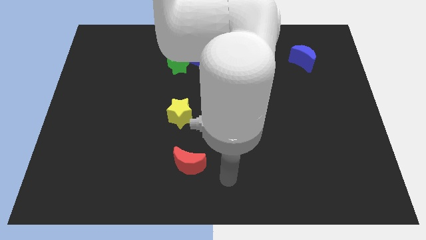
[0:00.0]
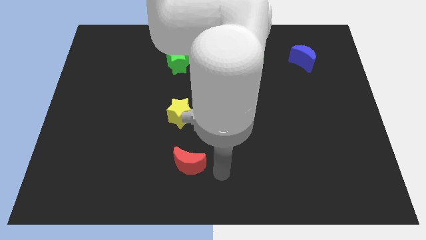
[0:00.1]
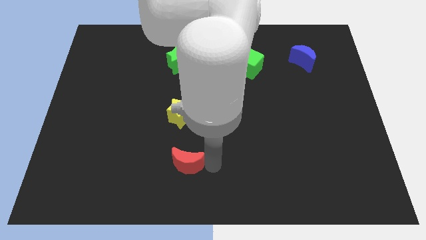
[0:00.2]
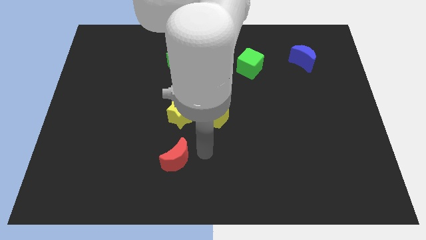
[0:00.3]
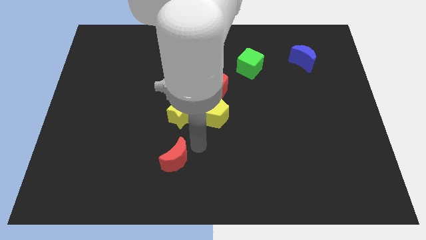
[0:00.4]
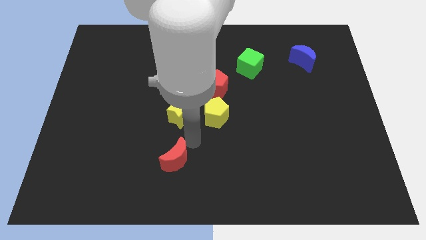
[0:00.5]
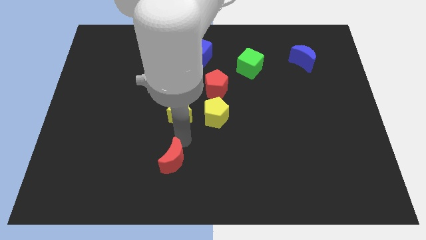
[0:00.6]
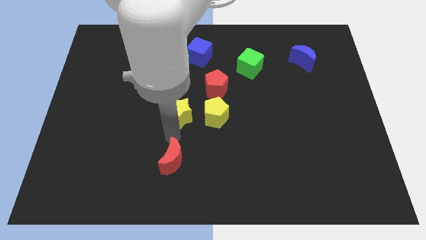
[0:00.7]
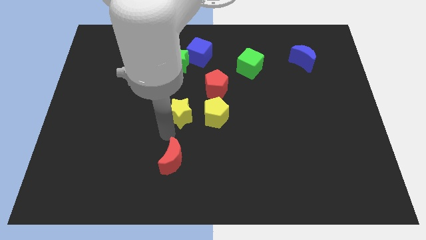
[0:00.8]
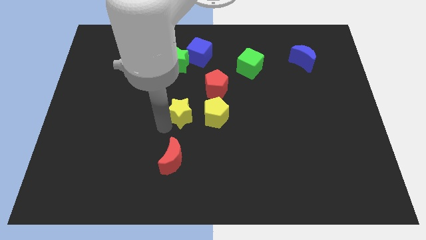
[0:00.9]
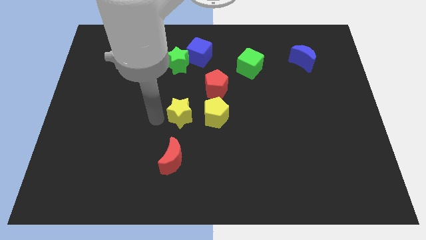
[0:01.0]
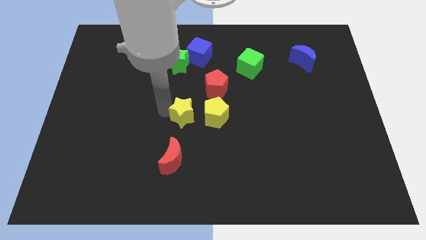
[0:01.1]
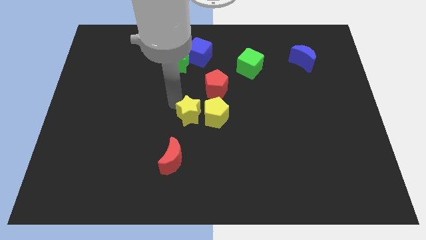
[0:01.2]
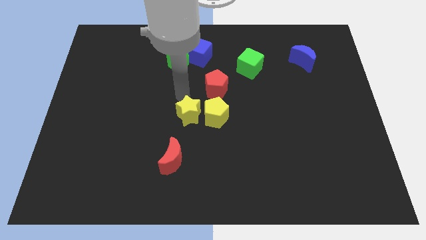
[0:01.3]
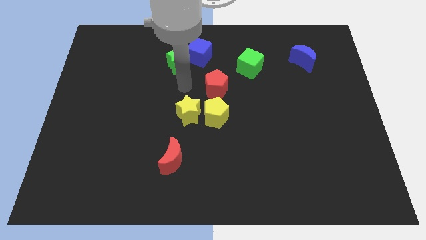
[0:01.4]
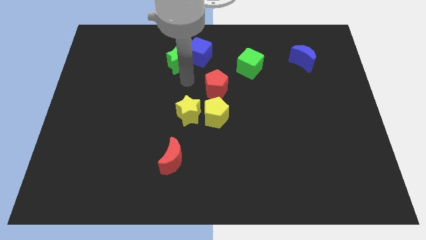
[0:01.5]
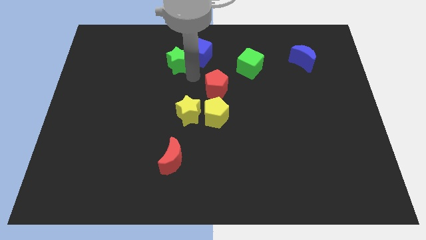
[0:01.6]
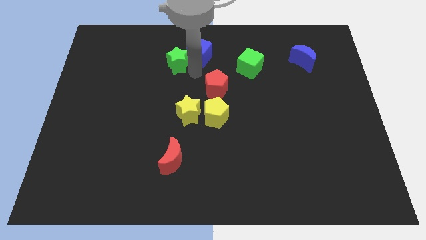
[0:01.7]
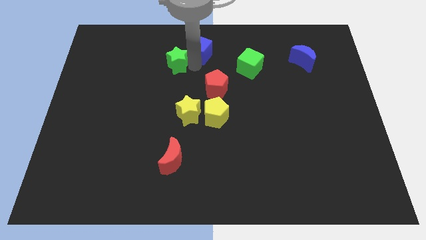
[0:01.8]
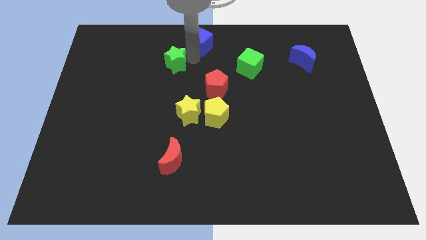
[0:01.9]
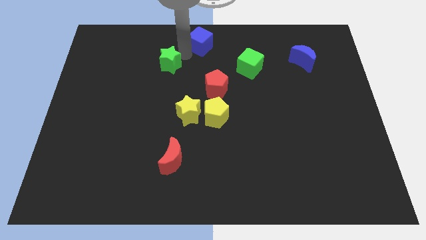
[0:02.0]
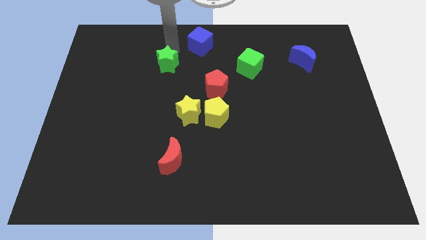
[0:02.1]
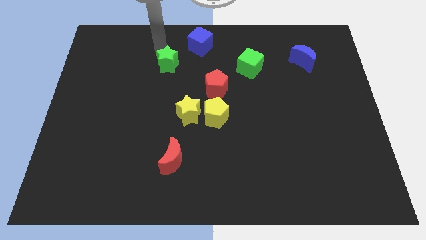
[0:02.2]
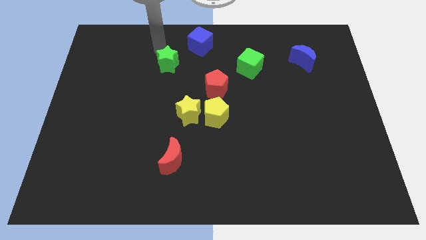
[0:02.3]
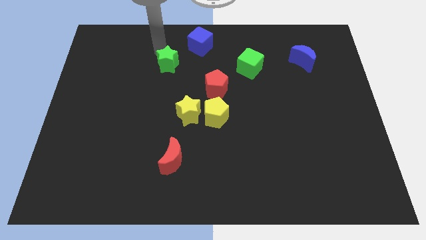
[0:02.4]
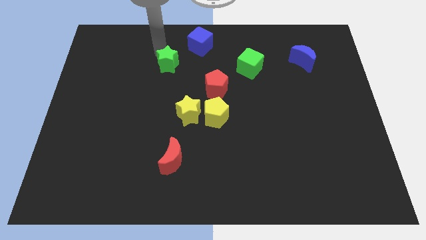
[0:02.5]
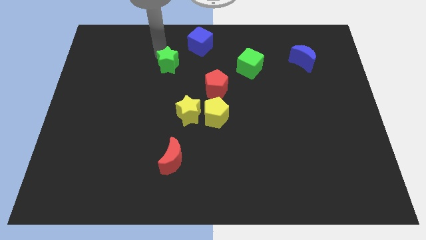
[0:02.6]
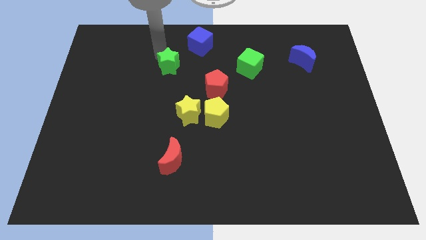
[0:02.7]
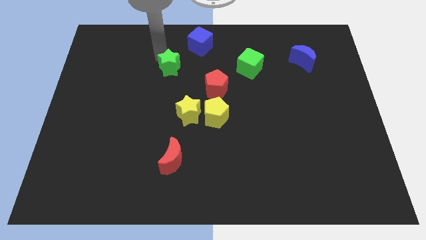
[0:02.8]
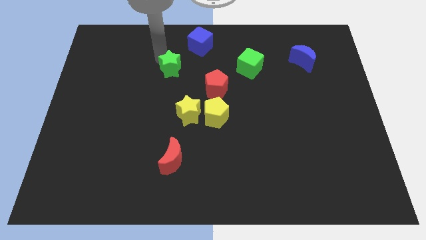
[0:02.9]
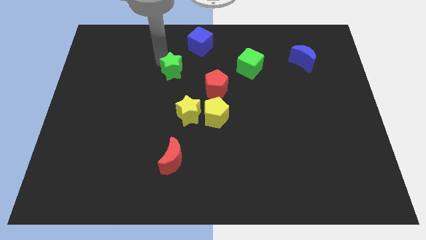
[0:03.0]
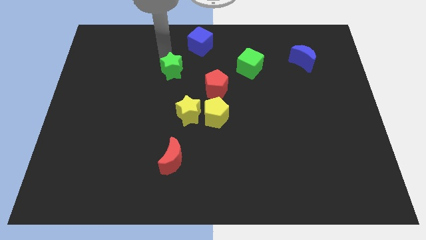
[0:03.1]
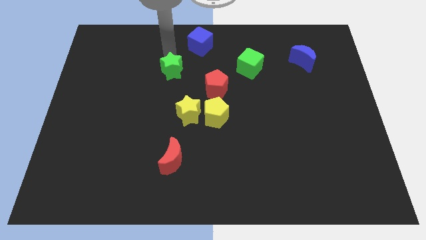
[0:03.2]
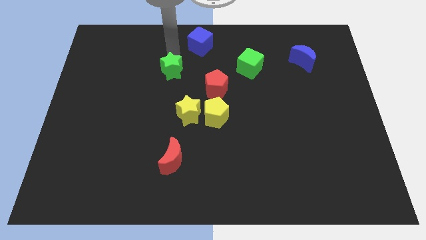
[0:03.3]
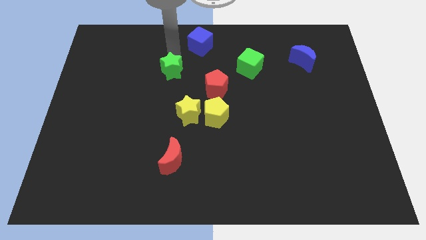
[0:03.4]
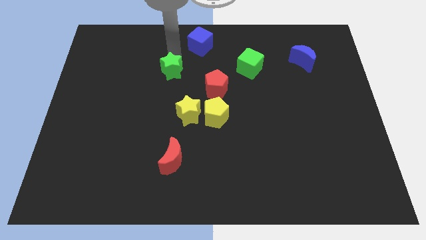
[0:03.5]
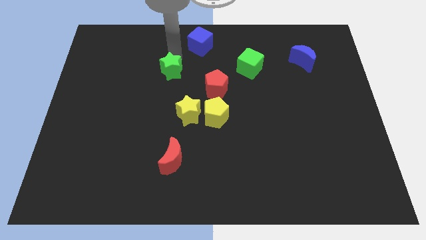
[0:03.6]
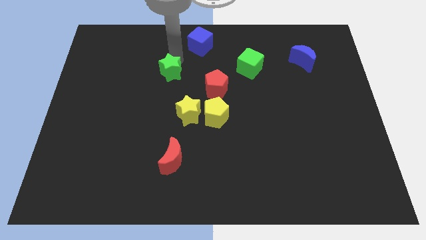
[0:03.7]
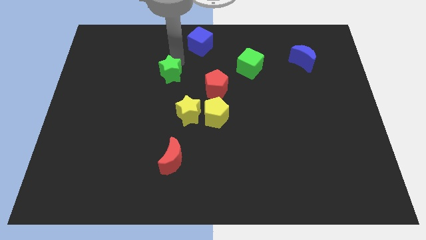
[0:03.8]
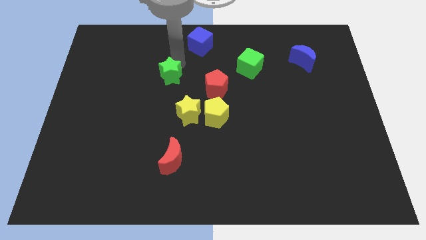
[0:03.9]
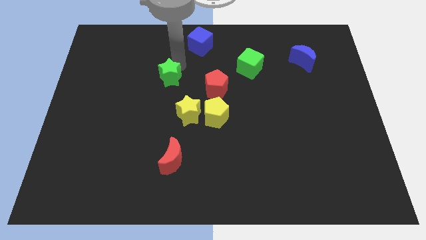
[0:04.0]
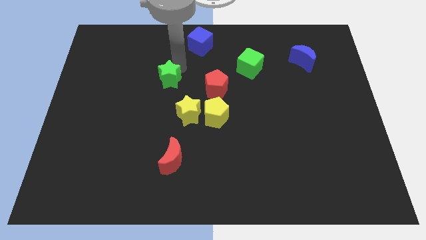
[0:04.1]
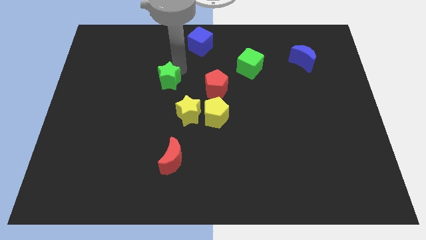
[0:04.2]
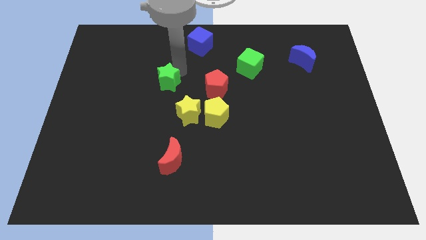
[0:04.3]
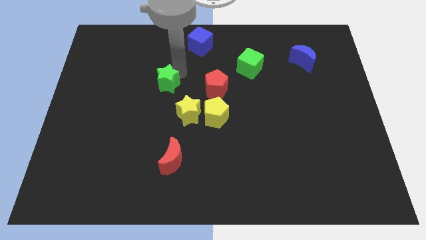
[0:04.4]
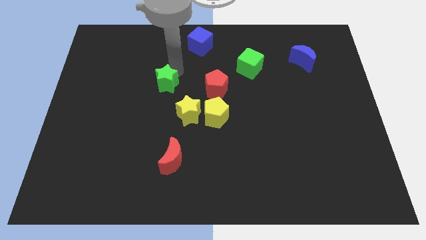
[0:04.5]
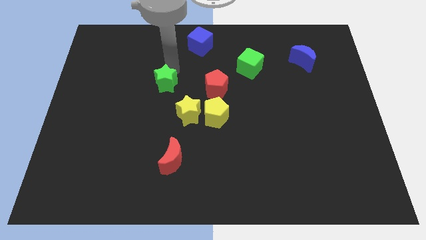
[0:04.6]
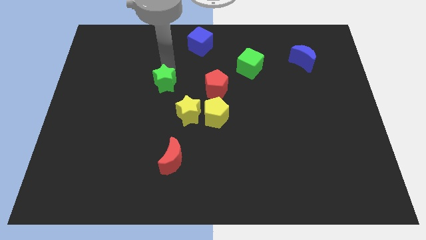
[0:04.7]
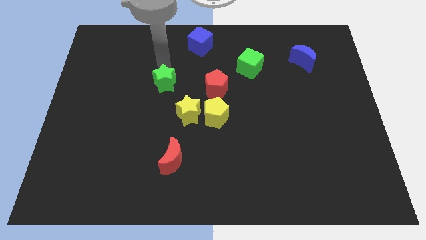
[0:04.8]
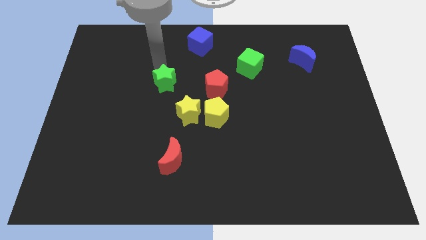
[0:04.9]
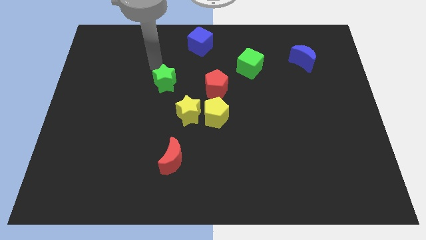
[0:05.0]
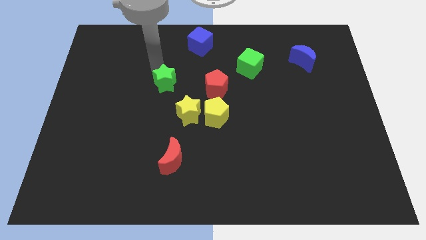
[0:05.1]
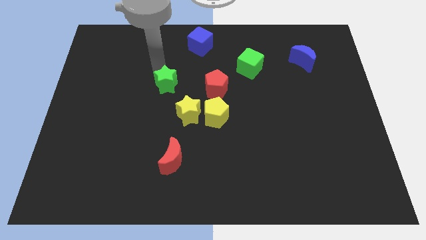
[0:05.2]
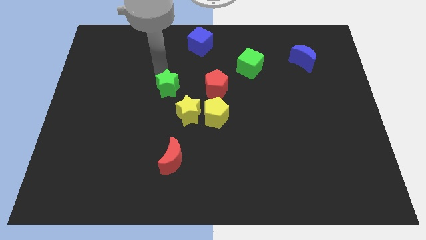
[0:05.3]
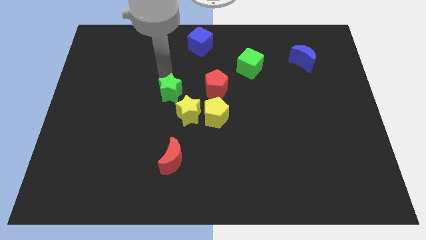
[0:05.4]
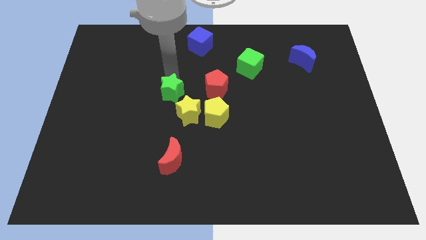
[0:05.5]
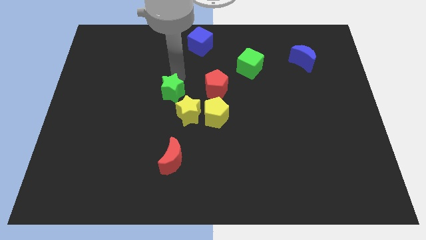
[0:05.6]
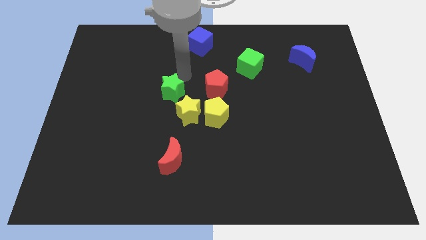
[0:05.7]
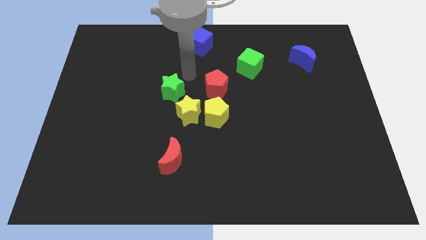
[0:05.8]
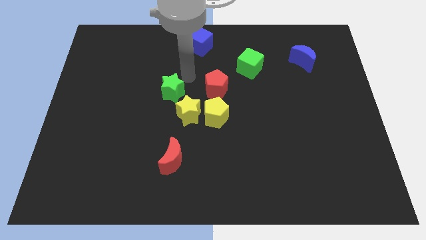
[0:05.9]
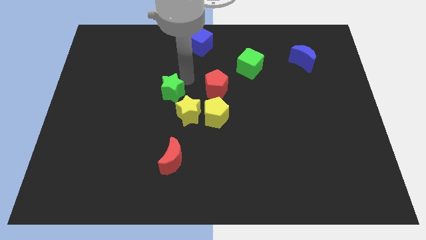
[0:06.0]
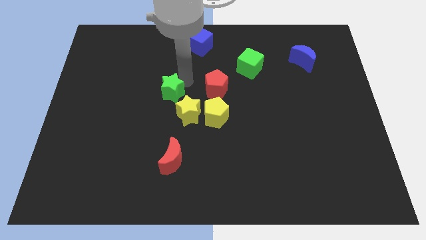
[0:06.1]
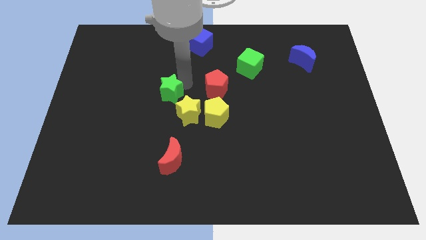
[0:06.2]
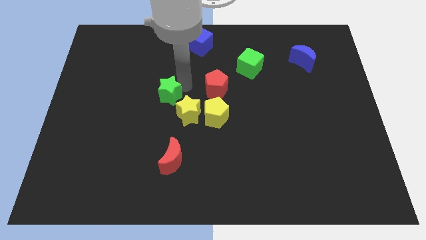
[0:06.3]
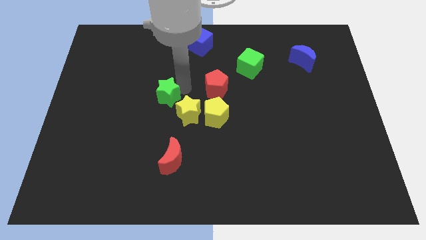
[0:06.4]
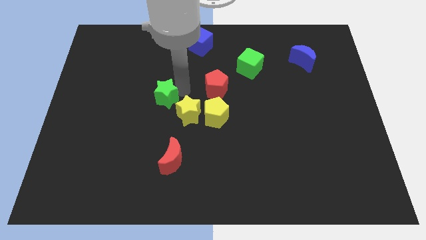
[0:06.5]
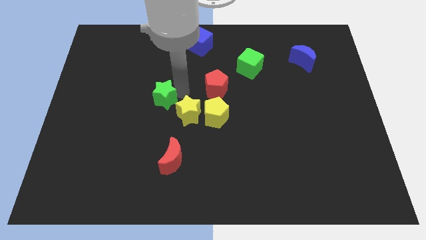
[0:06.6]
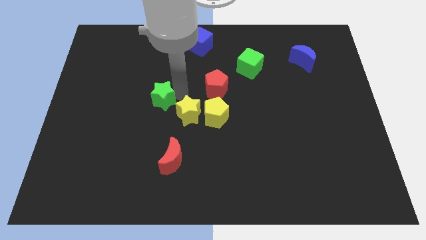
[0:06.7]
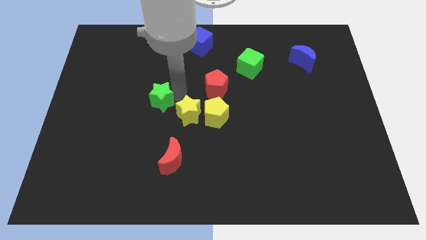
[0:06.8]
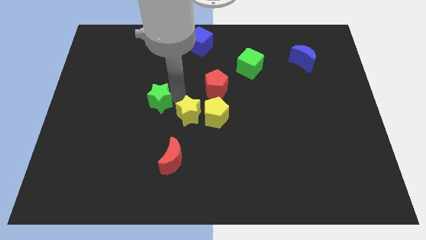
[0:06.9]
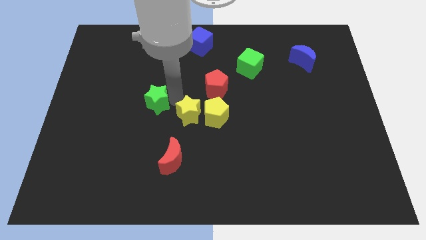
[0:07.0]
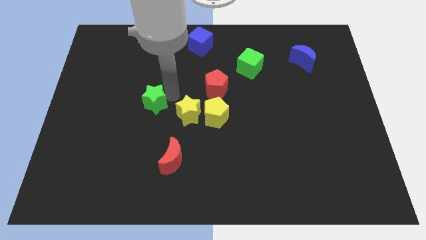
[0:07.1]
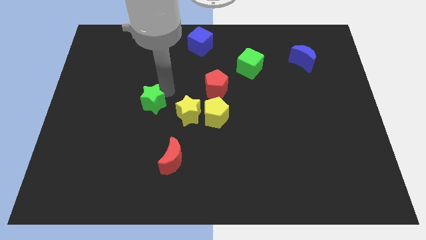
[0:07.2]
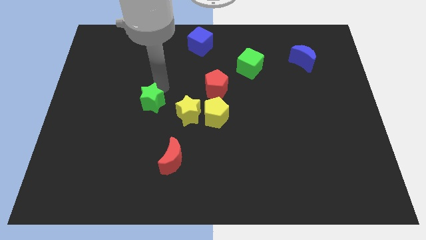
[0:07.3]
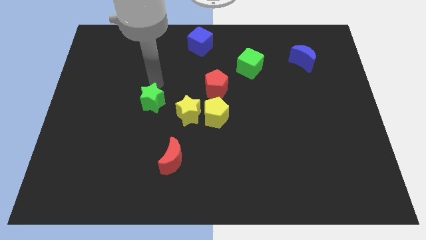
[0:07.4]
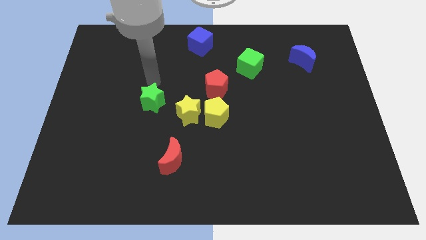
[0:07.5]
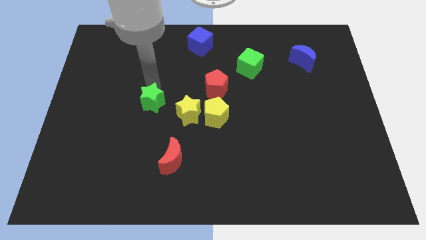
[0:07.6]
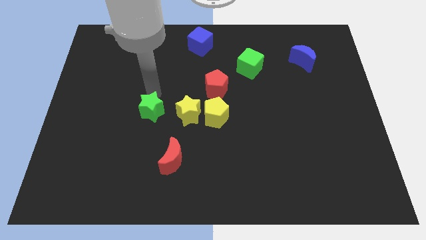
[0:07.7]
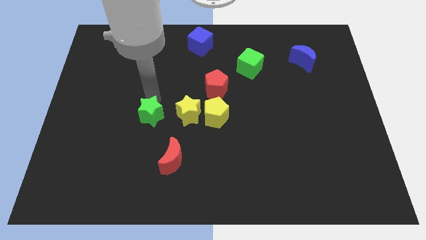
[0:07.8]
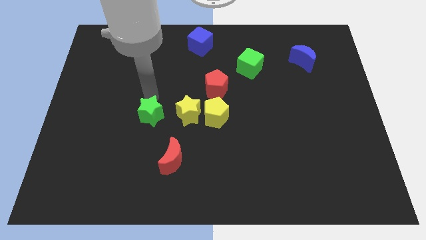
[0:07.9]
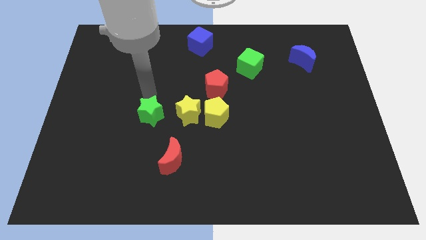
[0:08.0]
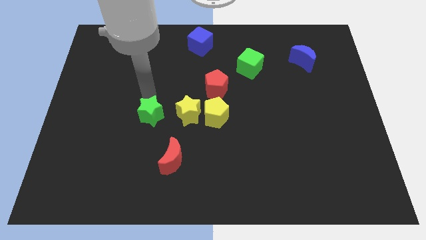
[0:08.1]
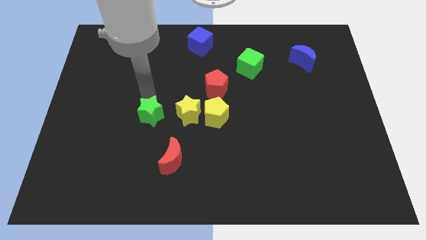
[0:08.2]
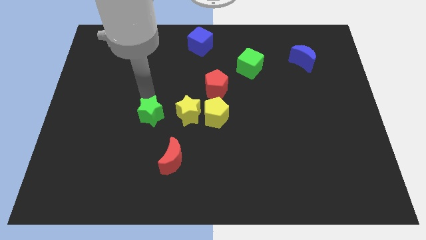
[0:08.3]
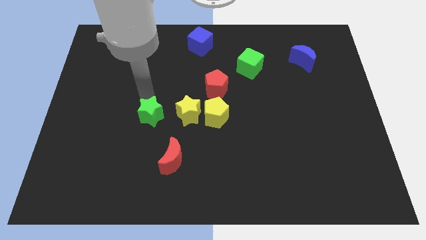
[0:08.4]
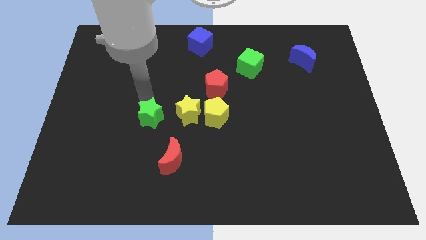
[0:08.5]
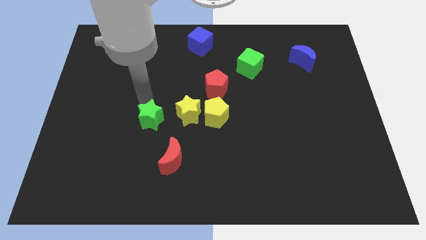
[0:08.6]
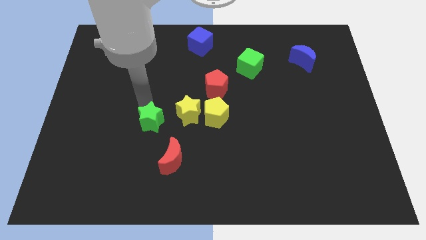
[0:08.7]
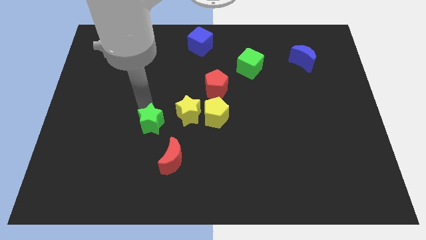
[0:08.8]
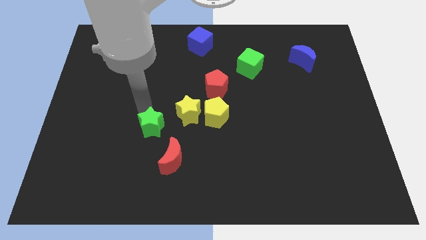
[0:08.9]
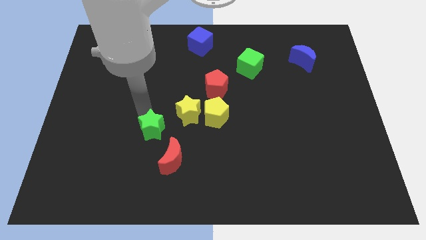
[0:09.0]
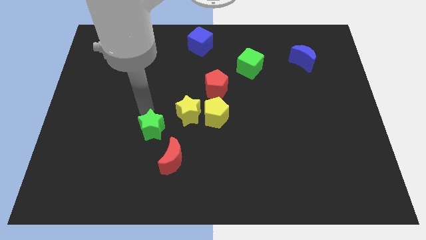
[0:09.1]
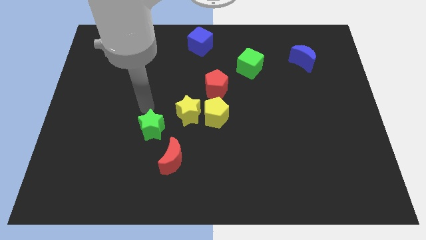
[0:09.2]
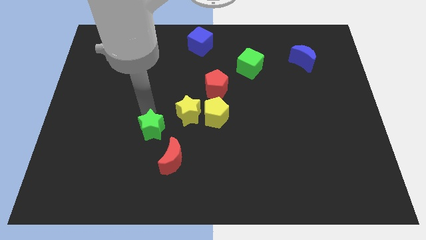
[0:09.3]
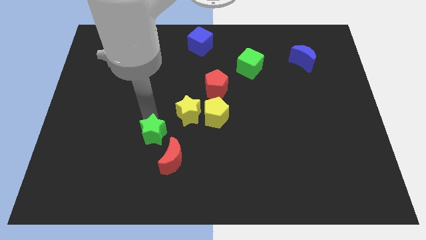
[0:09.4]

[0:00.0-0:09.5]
slide the green star down
